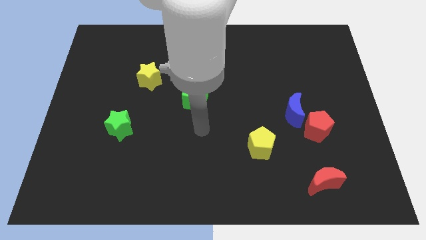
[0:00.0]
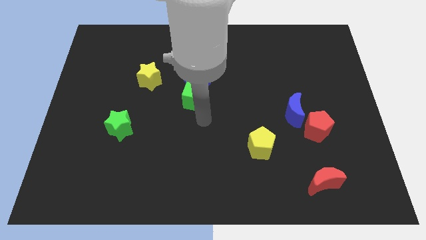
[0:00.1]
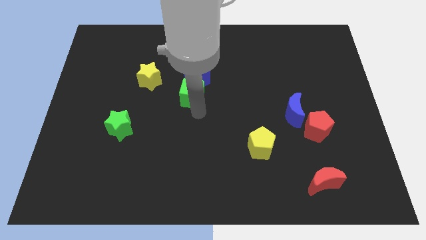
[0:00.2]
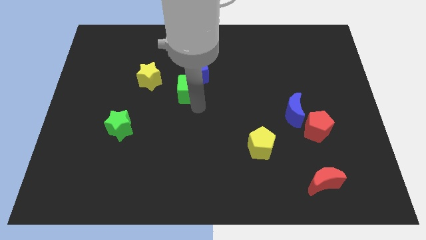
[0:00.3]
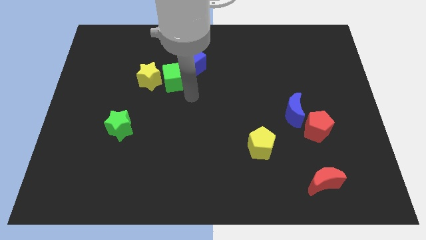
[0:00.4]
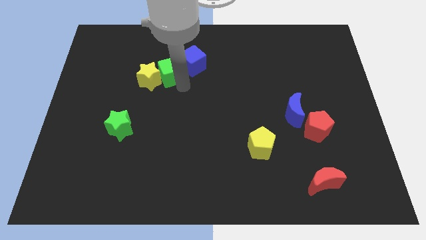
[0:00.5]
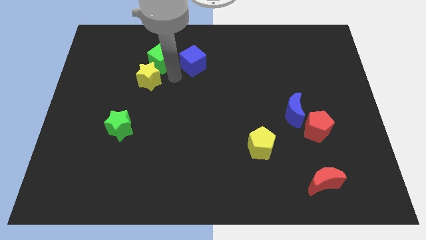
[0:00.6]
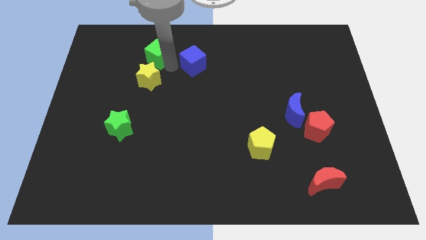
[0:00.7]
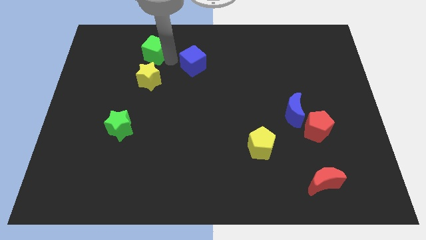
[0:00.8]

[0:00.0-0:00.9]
separate the blue cube from the green cube

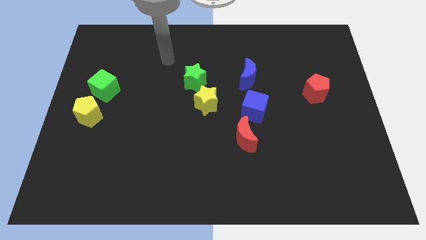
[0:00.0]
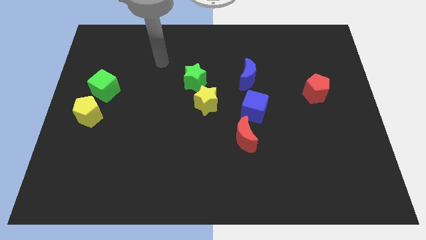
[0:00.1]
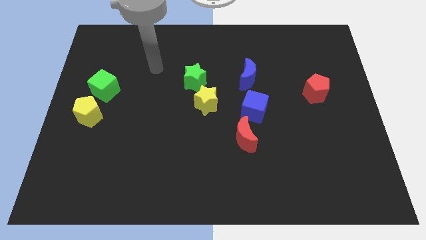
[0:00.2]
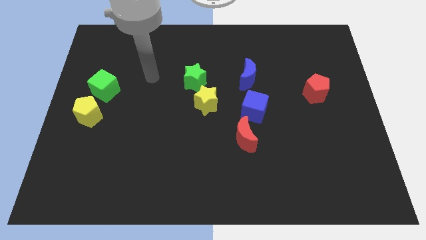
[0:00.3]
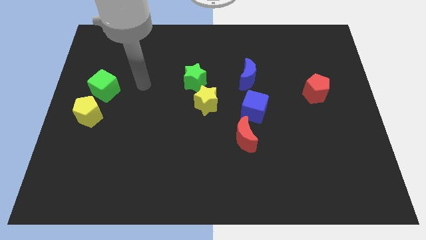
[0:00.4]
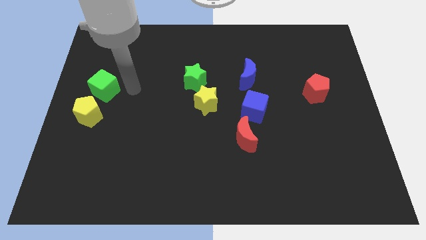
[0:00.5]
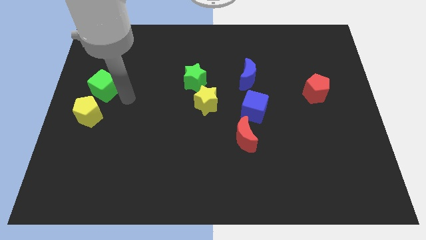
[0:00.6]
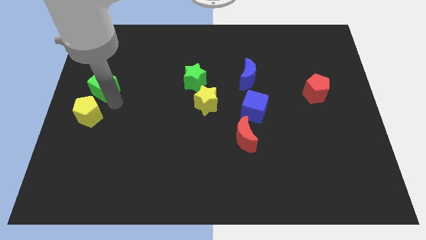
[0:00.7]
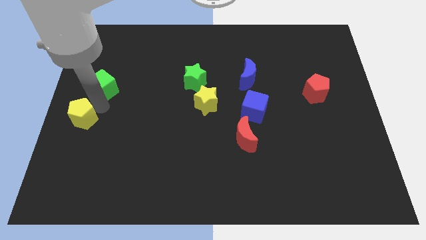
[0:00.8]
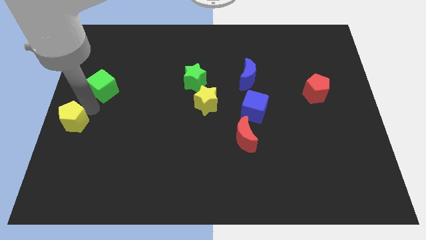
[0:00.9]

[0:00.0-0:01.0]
move the green cube away from the yellow pentagon

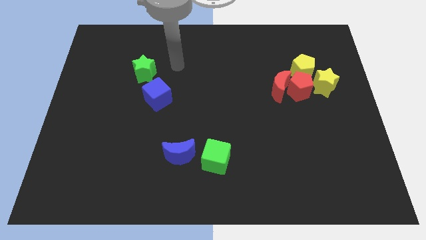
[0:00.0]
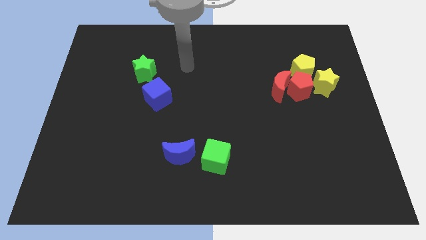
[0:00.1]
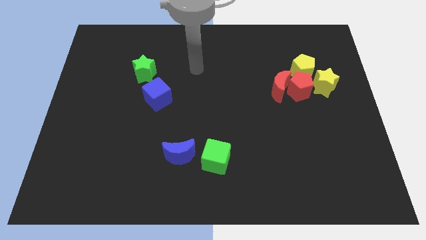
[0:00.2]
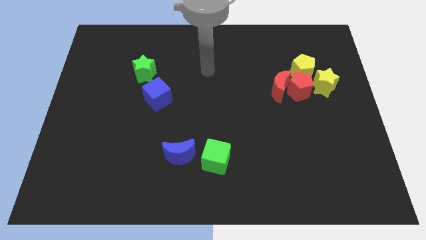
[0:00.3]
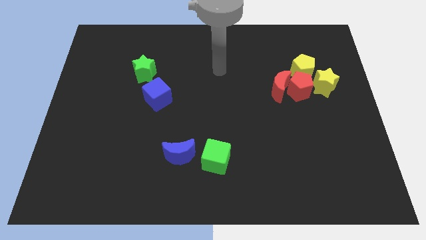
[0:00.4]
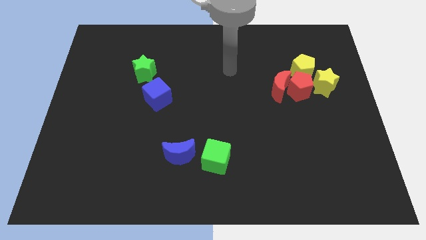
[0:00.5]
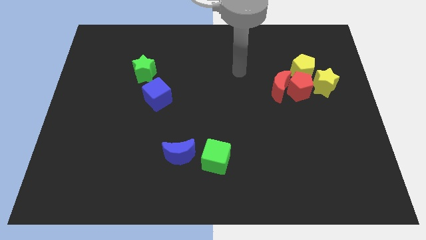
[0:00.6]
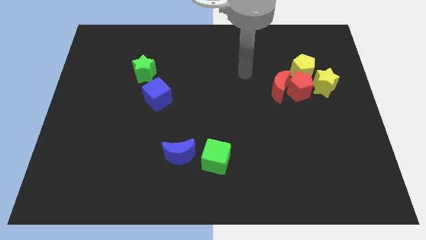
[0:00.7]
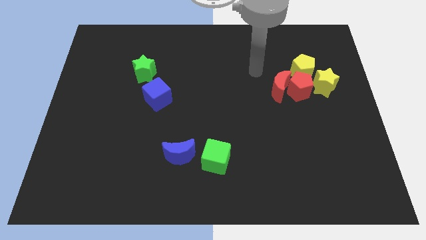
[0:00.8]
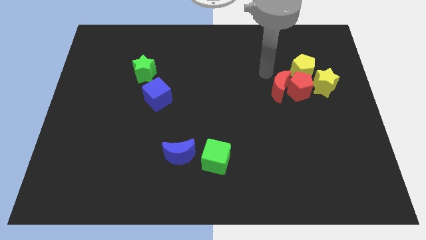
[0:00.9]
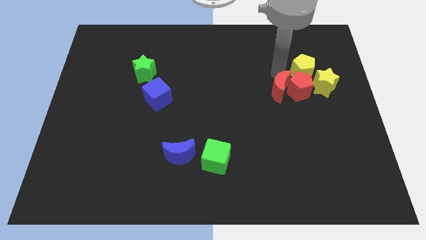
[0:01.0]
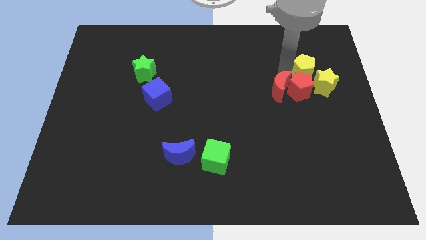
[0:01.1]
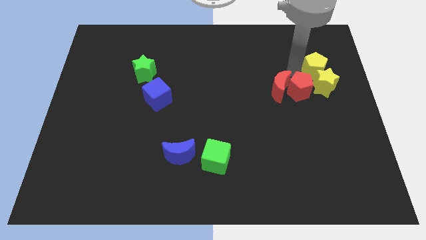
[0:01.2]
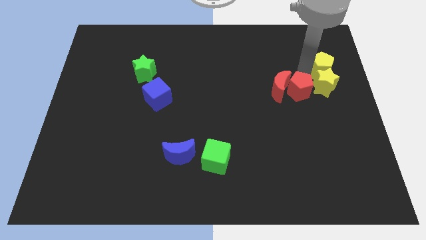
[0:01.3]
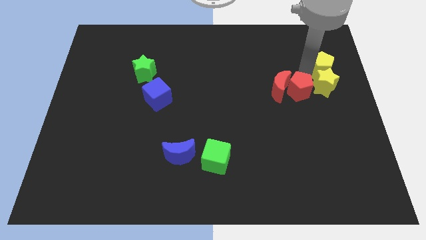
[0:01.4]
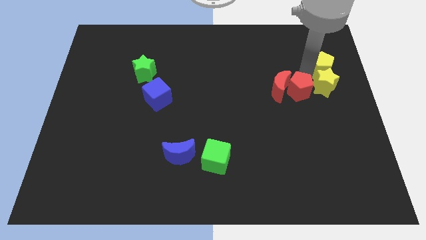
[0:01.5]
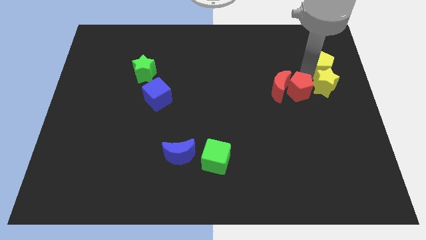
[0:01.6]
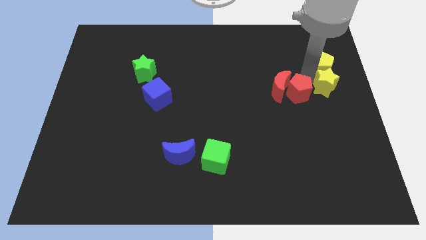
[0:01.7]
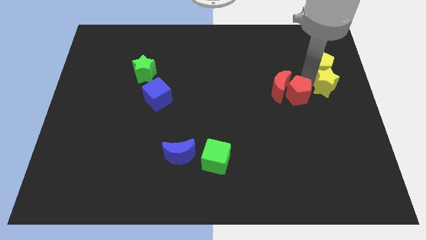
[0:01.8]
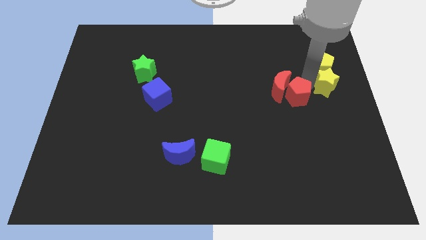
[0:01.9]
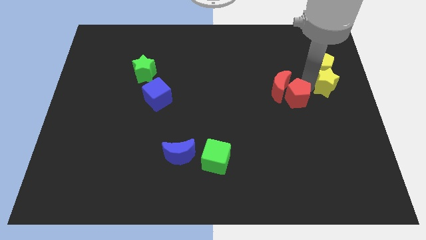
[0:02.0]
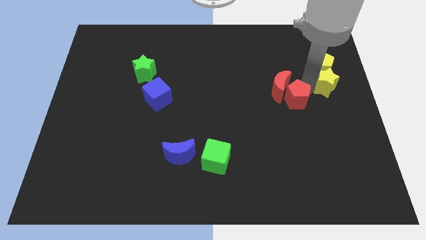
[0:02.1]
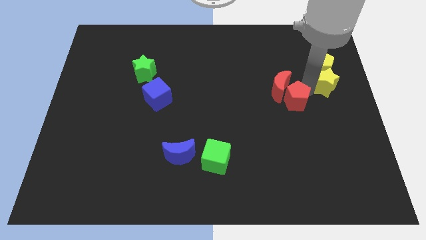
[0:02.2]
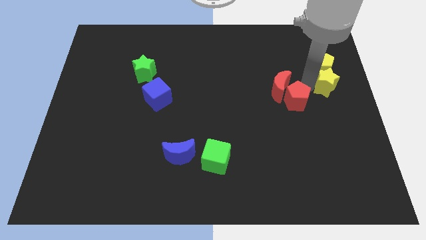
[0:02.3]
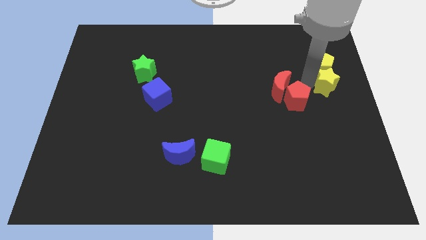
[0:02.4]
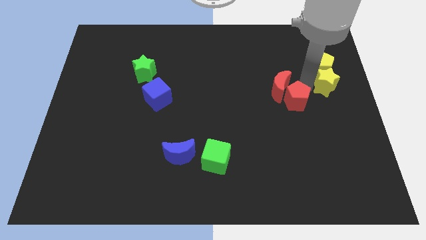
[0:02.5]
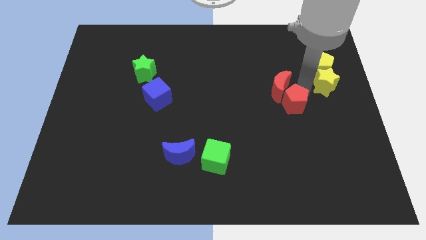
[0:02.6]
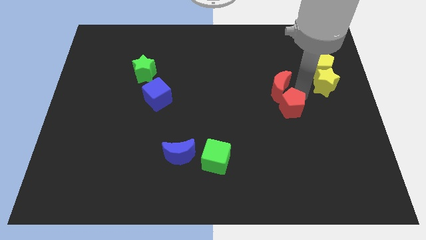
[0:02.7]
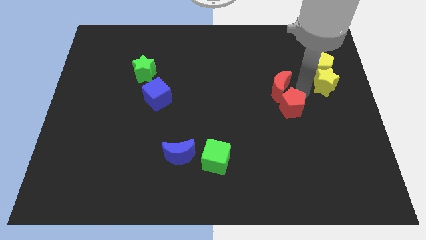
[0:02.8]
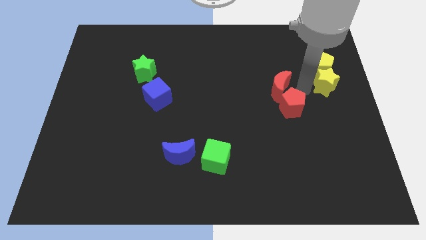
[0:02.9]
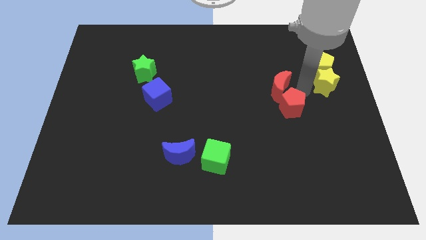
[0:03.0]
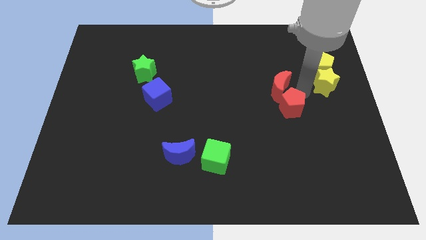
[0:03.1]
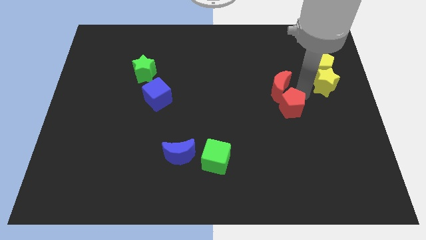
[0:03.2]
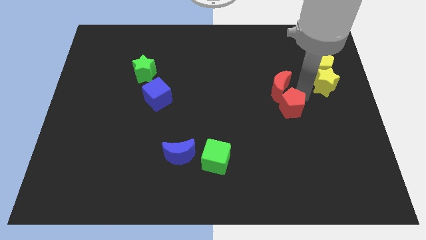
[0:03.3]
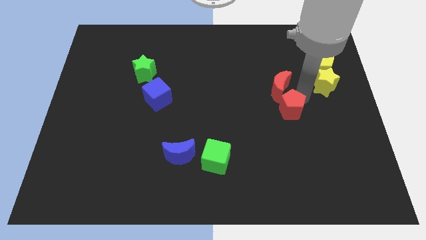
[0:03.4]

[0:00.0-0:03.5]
move the red pentagon away from the group of blocks

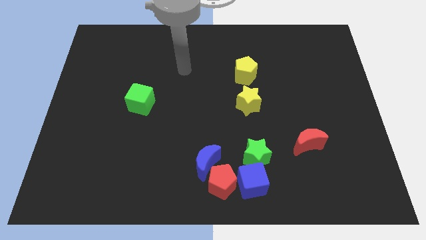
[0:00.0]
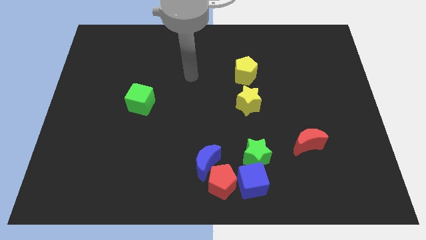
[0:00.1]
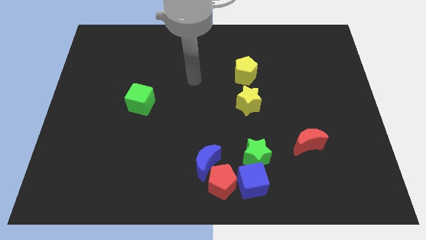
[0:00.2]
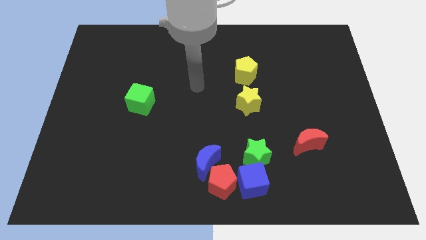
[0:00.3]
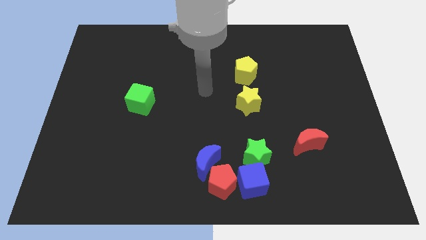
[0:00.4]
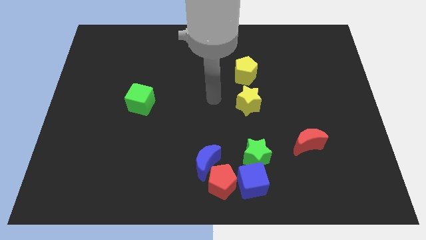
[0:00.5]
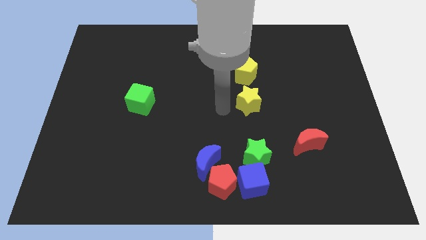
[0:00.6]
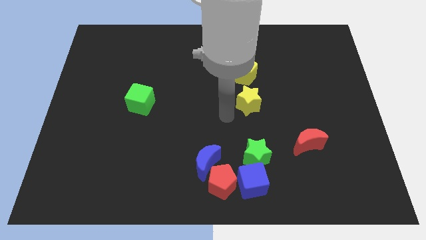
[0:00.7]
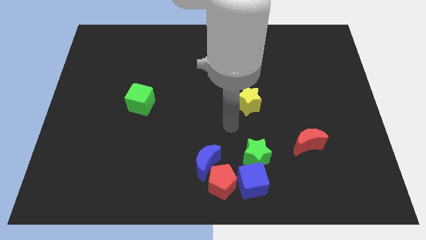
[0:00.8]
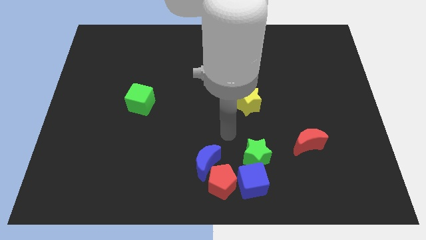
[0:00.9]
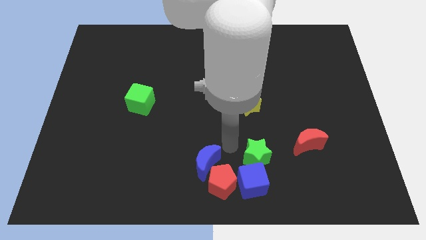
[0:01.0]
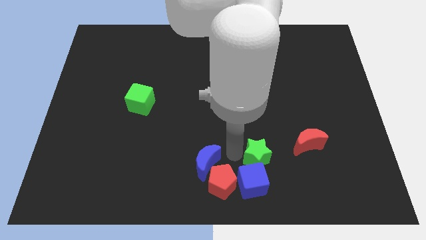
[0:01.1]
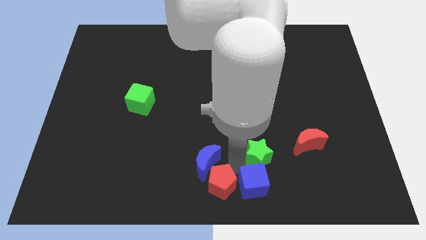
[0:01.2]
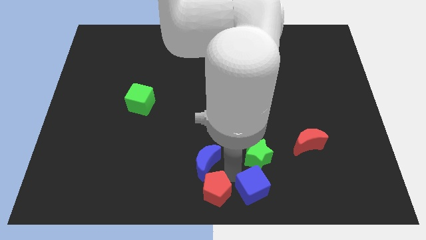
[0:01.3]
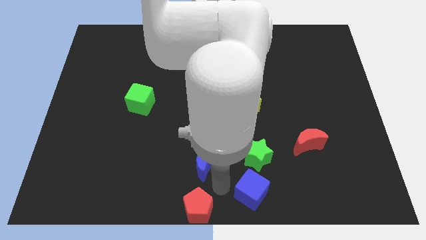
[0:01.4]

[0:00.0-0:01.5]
move the blue moon away from the red pentagon

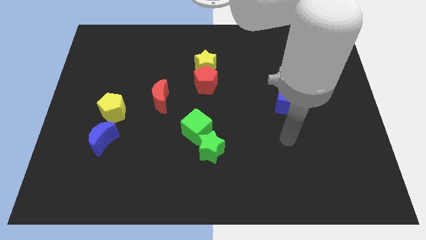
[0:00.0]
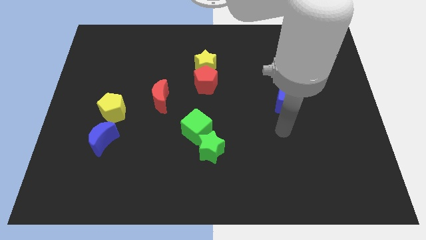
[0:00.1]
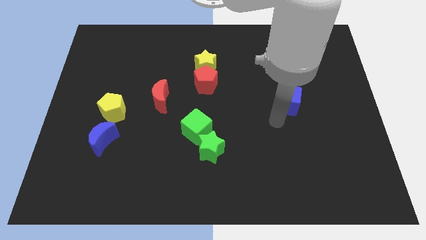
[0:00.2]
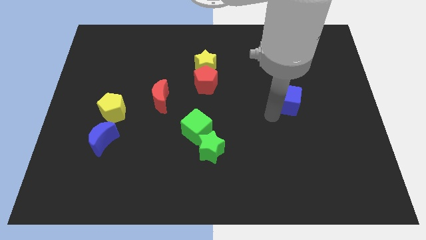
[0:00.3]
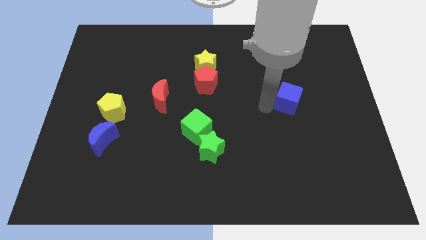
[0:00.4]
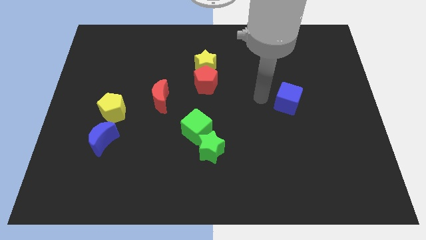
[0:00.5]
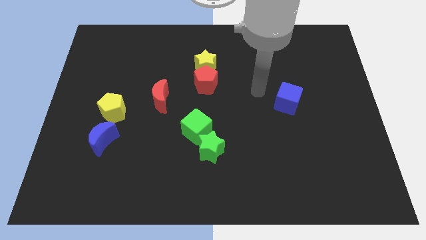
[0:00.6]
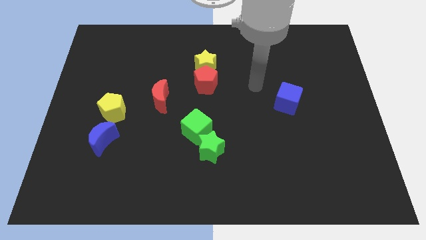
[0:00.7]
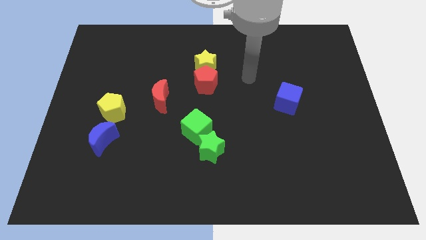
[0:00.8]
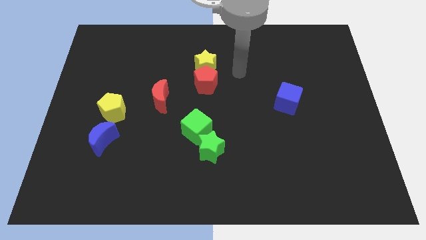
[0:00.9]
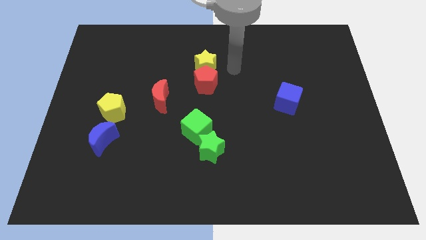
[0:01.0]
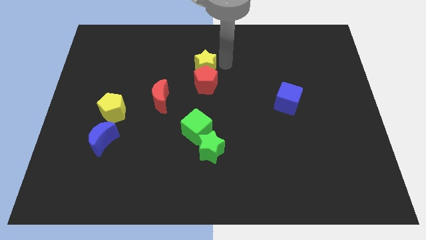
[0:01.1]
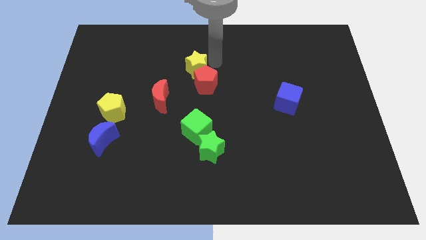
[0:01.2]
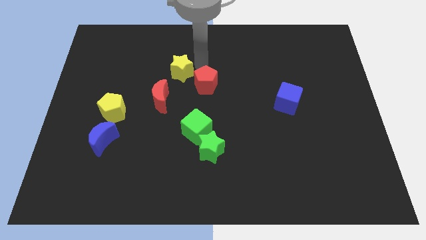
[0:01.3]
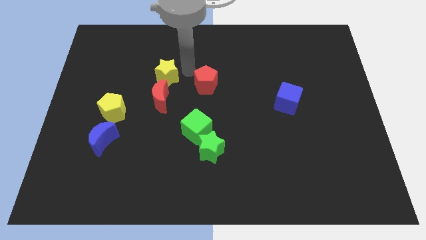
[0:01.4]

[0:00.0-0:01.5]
move the red pentagon away from the yellow star

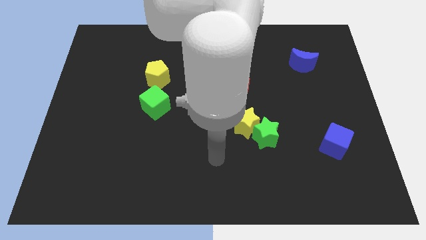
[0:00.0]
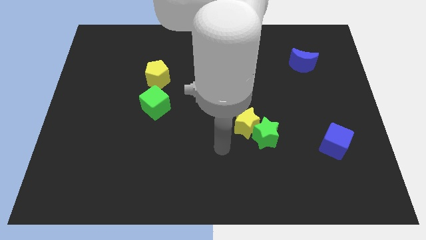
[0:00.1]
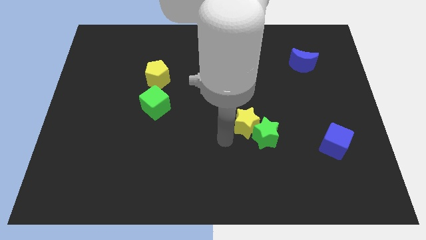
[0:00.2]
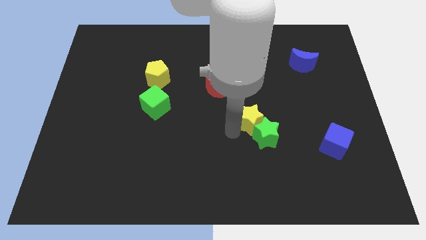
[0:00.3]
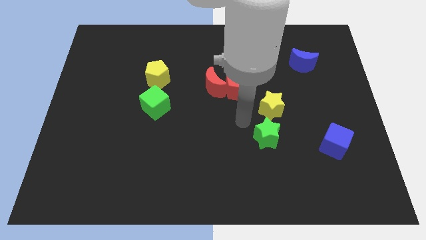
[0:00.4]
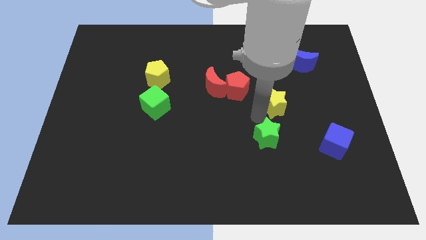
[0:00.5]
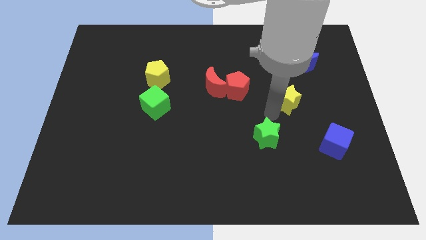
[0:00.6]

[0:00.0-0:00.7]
pull the green star apart from the yellow star

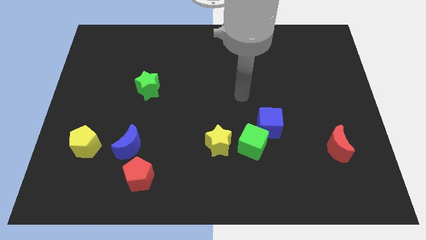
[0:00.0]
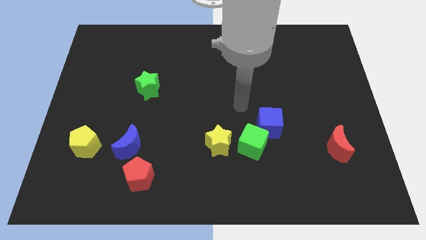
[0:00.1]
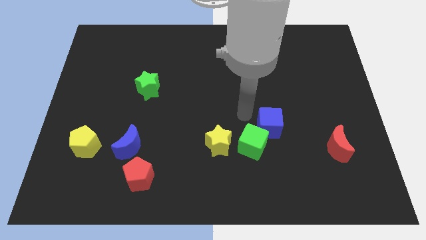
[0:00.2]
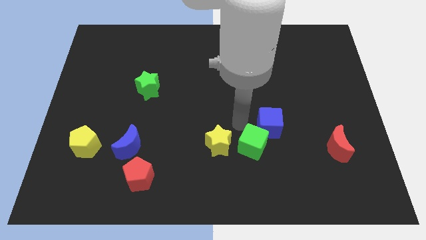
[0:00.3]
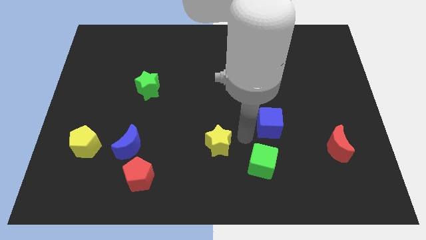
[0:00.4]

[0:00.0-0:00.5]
pull the blue cube apart from the green cube
